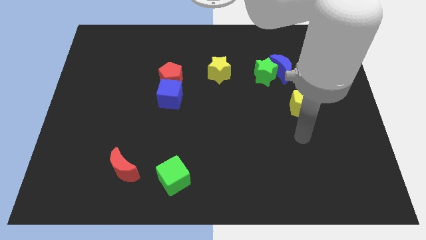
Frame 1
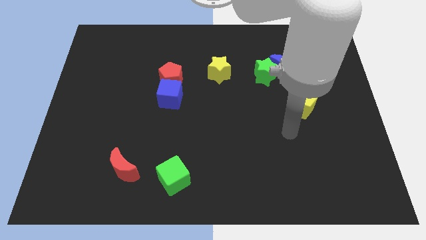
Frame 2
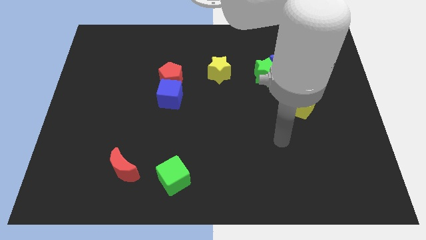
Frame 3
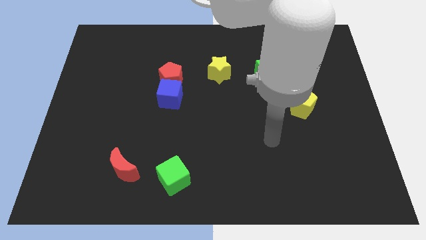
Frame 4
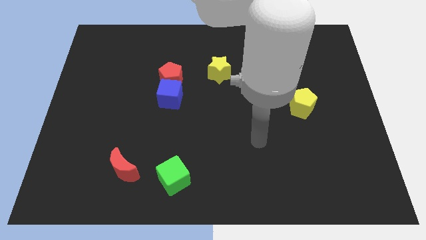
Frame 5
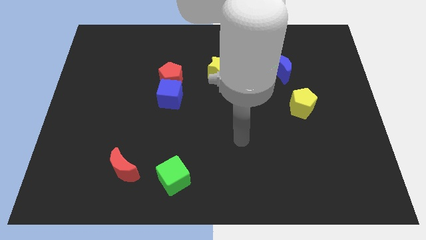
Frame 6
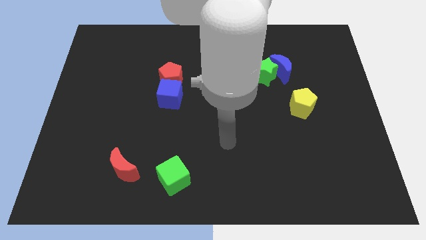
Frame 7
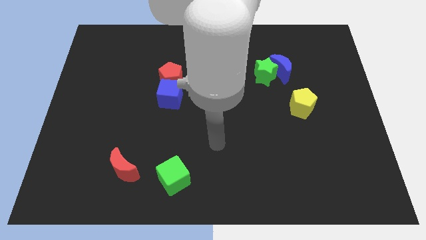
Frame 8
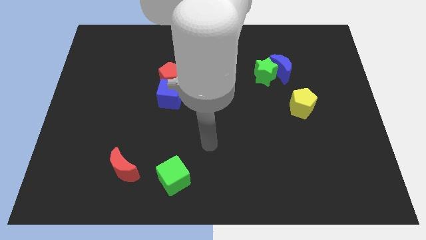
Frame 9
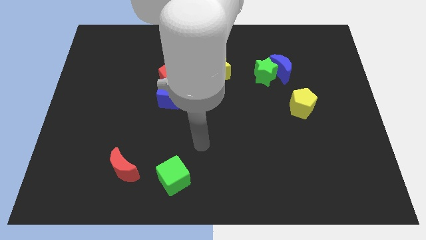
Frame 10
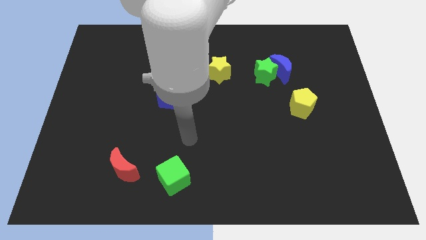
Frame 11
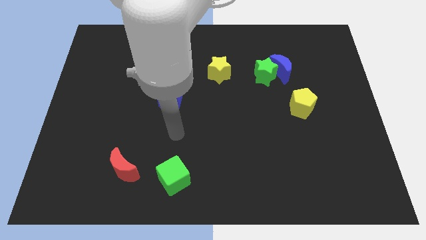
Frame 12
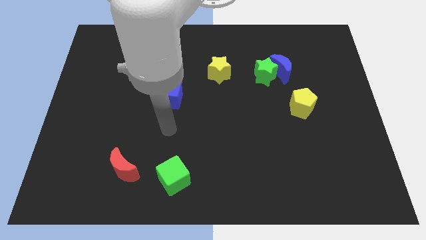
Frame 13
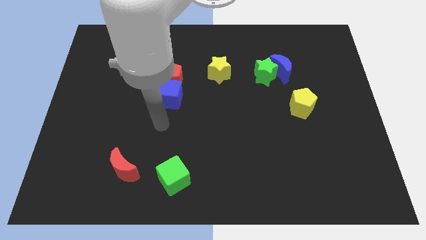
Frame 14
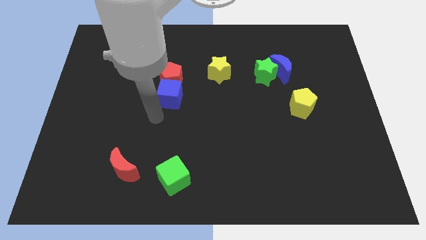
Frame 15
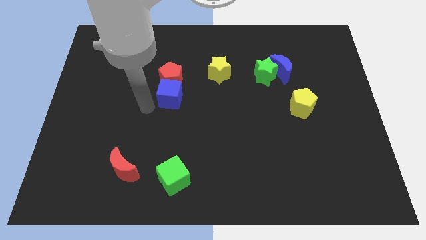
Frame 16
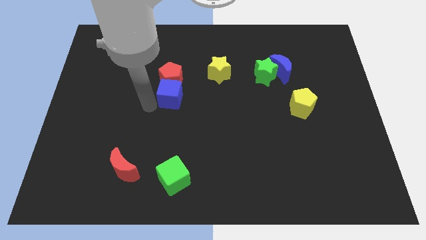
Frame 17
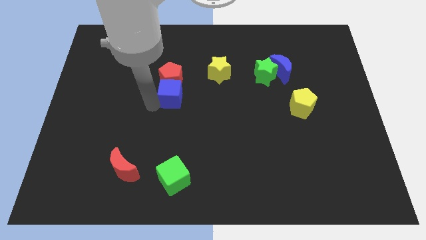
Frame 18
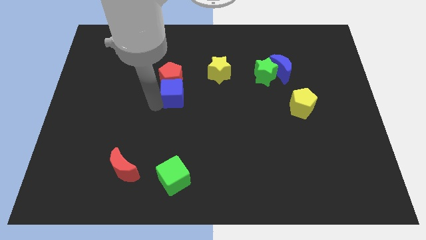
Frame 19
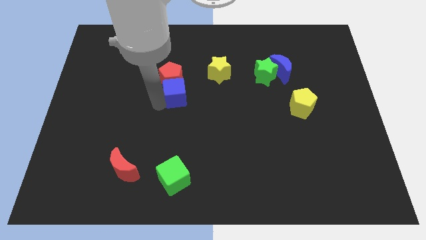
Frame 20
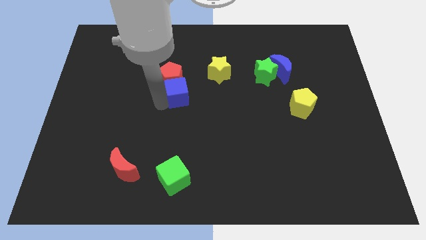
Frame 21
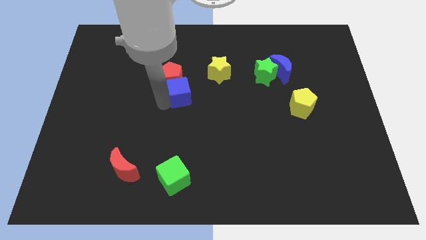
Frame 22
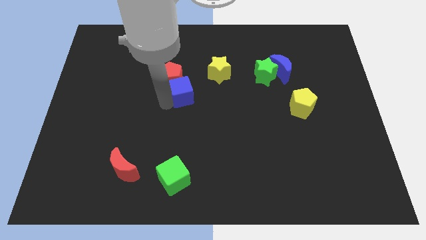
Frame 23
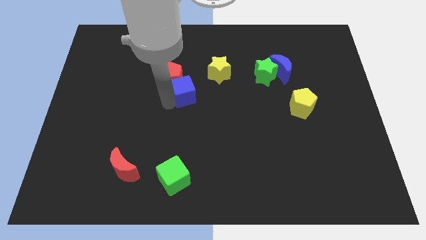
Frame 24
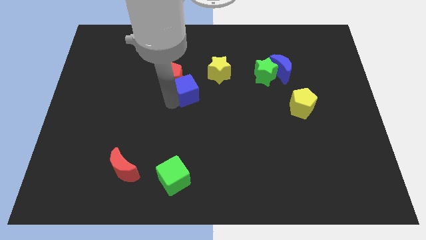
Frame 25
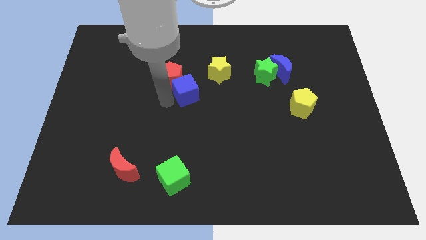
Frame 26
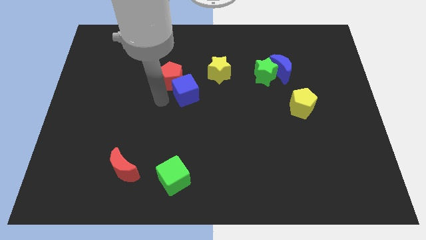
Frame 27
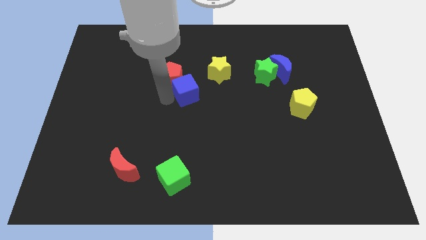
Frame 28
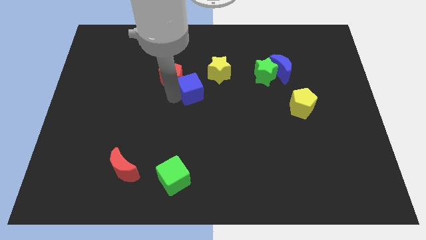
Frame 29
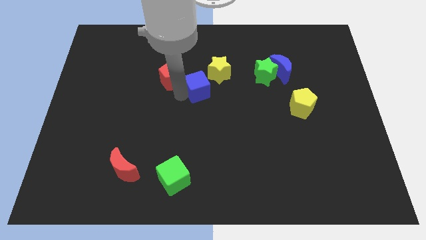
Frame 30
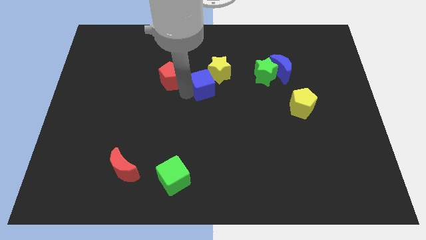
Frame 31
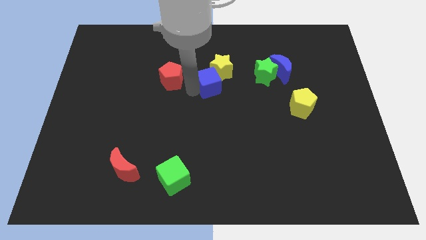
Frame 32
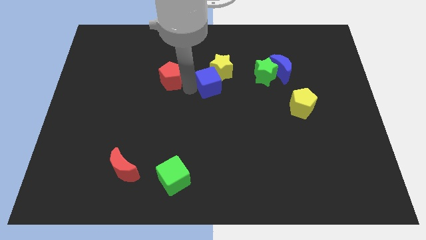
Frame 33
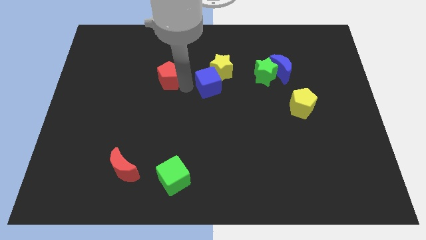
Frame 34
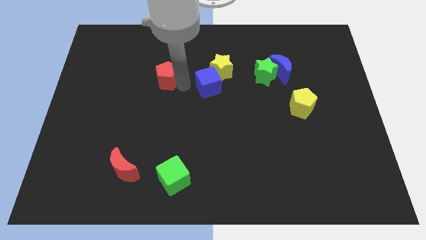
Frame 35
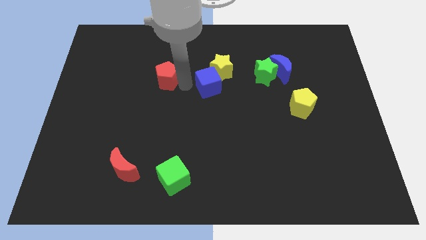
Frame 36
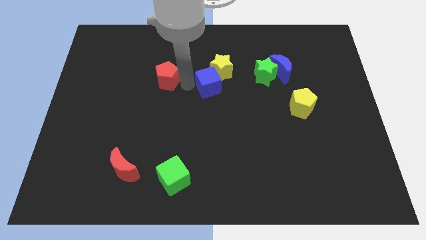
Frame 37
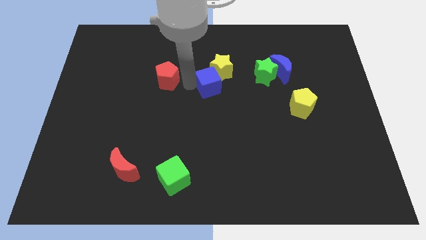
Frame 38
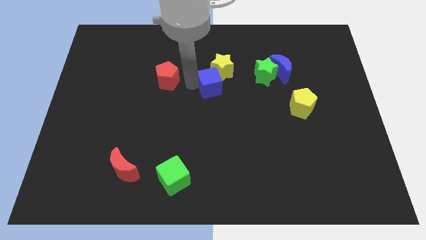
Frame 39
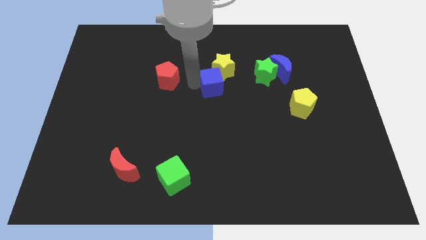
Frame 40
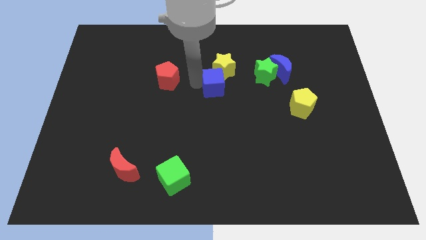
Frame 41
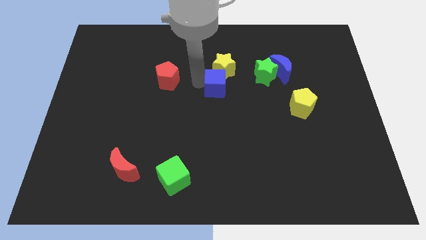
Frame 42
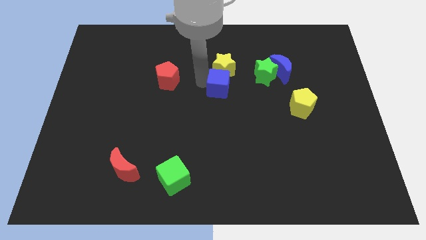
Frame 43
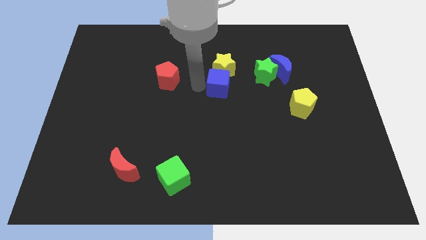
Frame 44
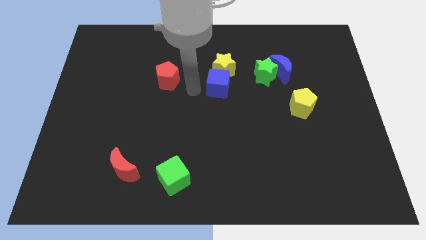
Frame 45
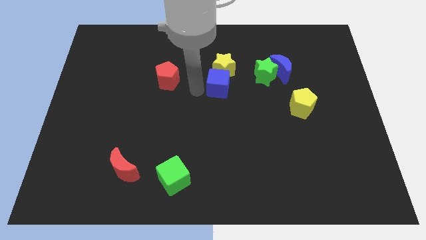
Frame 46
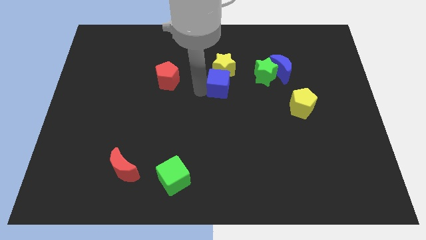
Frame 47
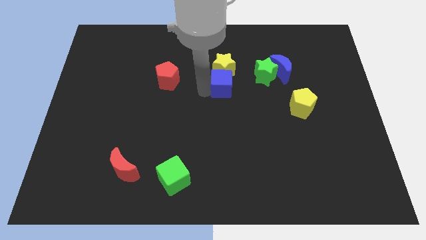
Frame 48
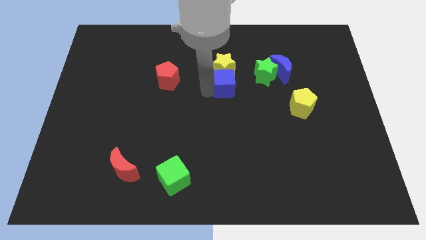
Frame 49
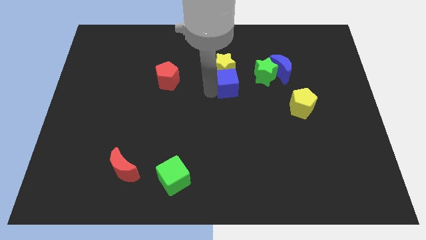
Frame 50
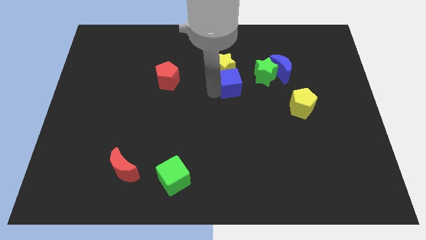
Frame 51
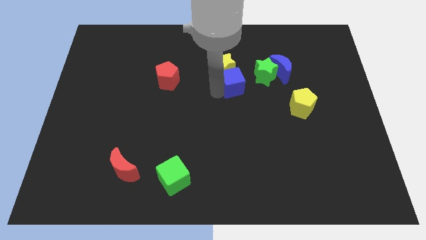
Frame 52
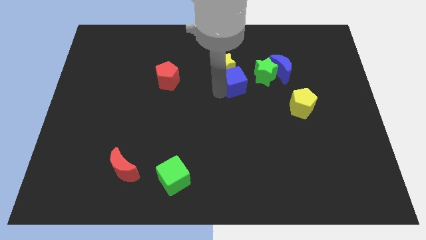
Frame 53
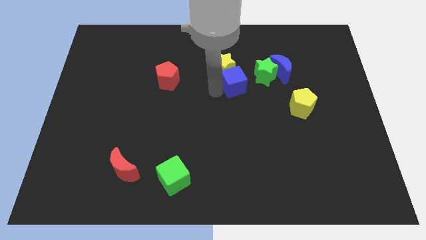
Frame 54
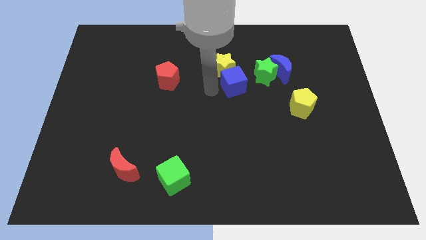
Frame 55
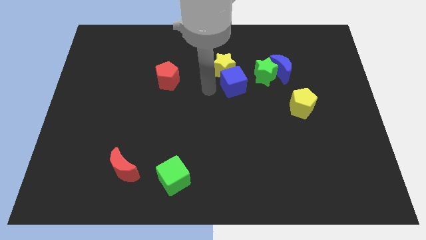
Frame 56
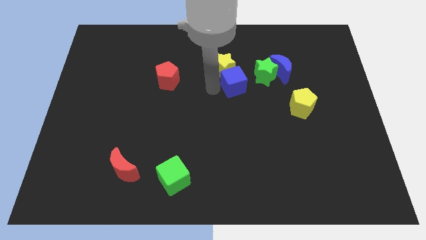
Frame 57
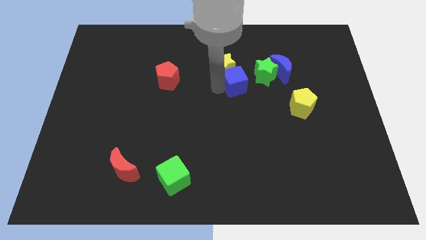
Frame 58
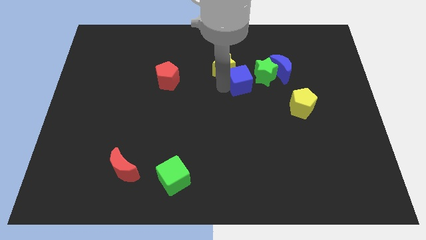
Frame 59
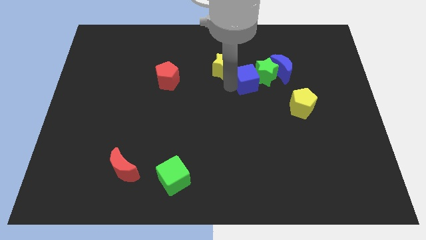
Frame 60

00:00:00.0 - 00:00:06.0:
push the blue cube close to the green star

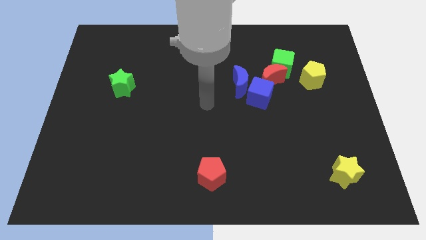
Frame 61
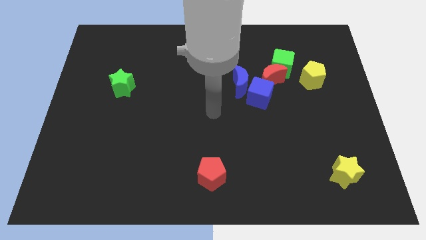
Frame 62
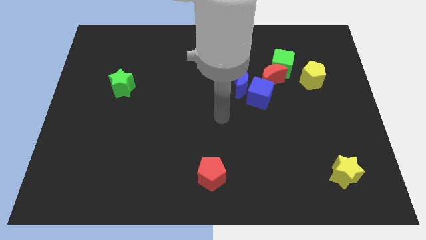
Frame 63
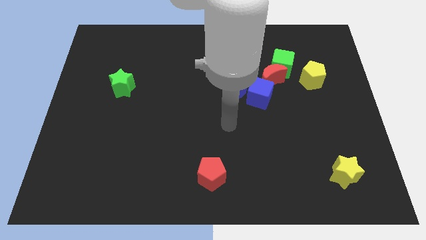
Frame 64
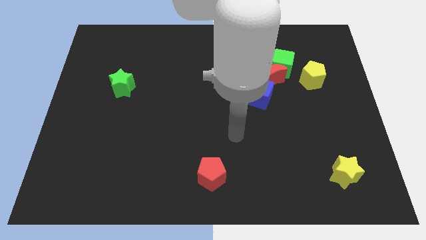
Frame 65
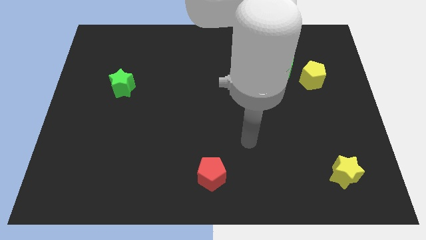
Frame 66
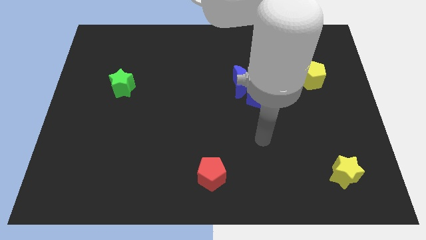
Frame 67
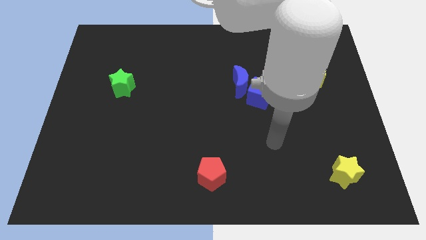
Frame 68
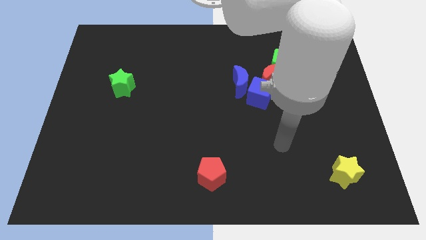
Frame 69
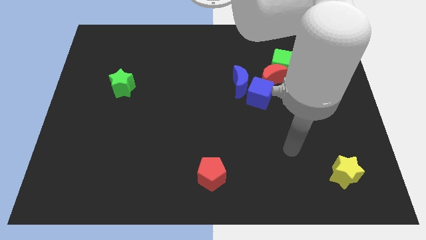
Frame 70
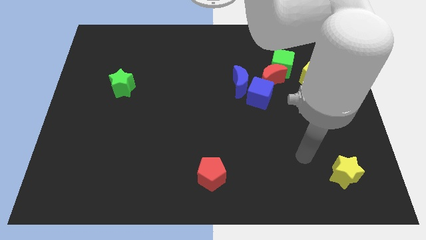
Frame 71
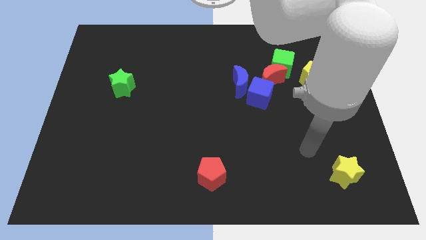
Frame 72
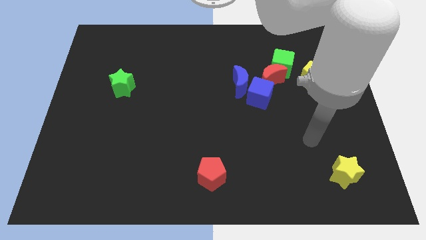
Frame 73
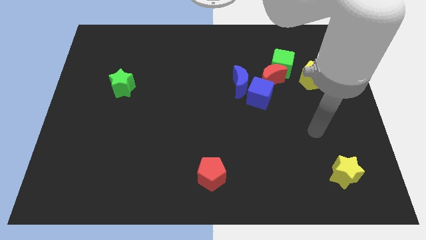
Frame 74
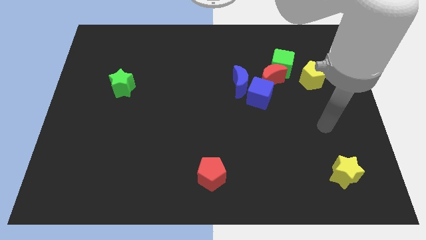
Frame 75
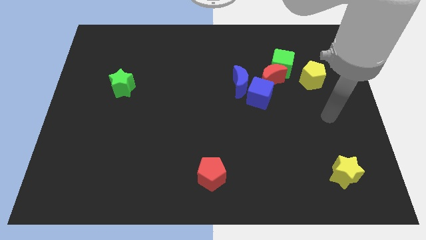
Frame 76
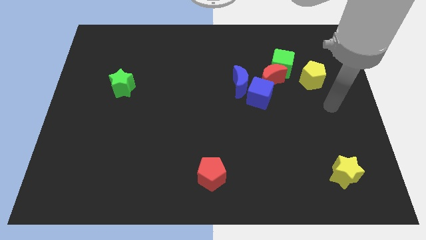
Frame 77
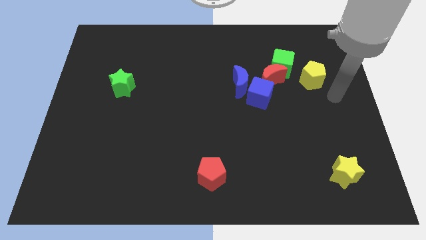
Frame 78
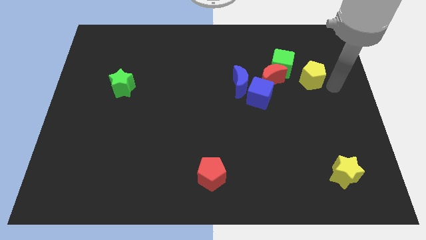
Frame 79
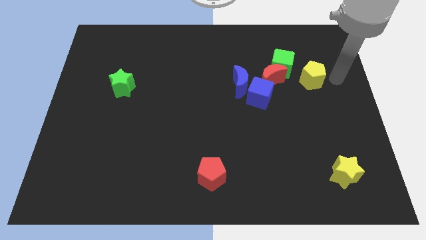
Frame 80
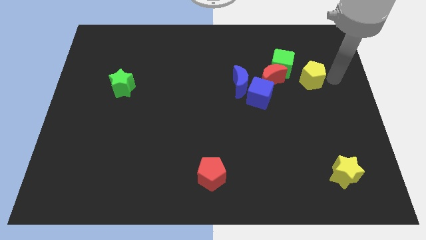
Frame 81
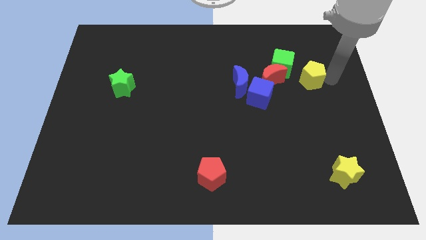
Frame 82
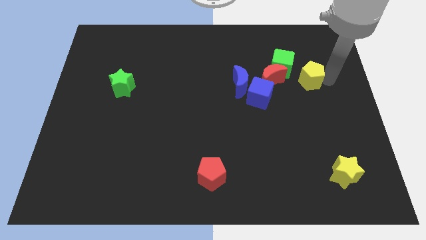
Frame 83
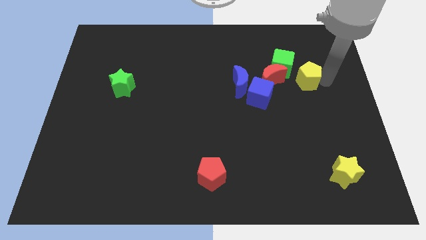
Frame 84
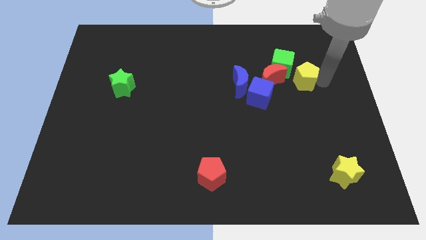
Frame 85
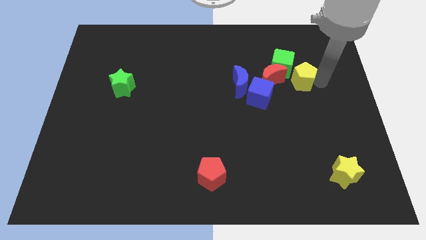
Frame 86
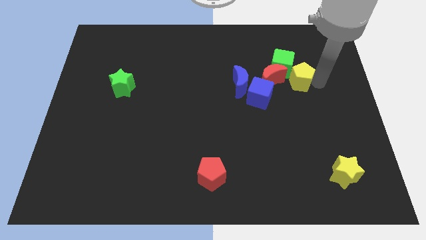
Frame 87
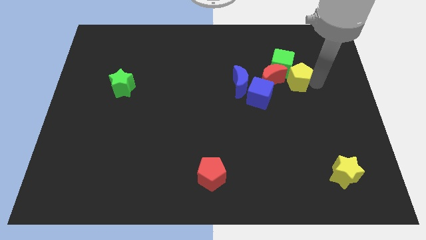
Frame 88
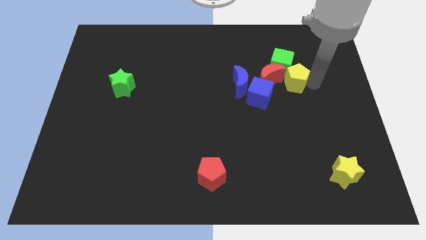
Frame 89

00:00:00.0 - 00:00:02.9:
push the yellow pentagon to the red moon
